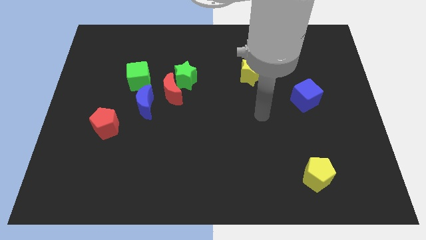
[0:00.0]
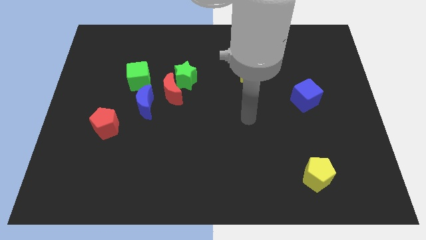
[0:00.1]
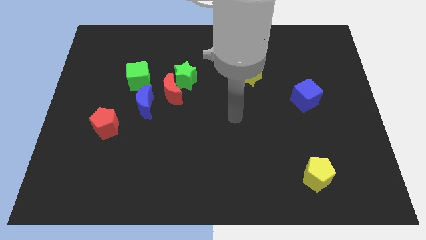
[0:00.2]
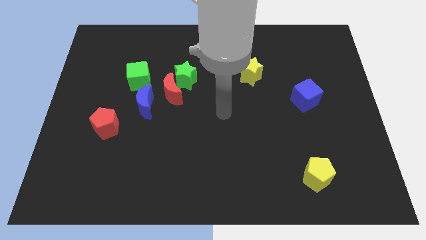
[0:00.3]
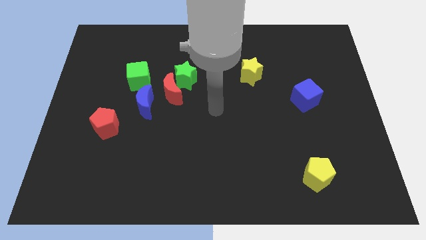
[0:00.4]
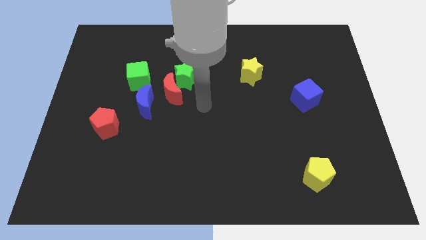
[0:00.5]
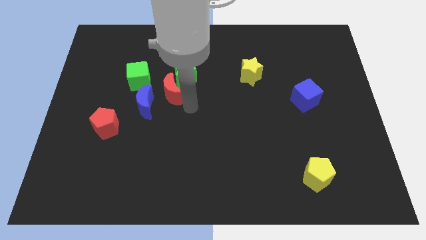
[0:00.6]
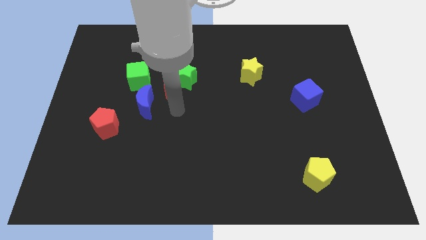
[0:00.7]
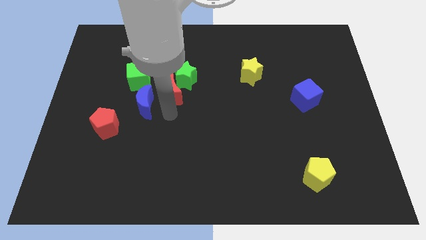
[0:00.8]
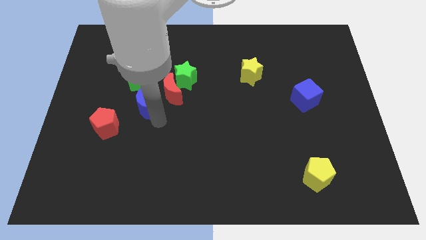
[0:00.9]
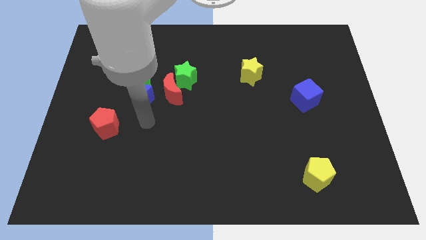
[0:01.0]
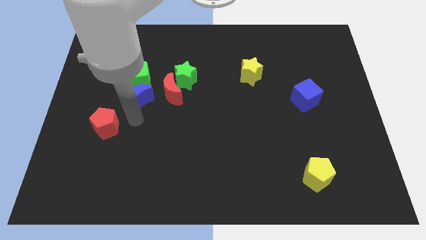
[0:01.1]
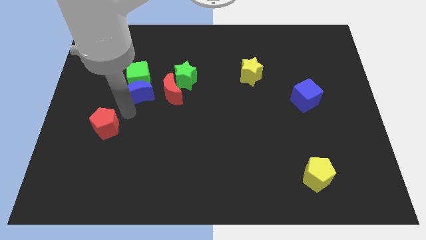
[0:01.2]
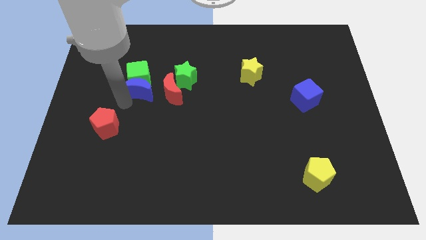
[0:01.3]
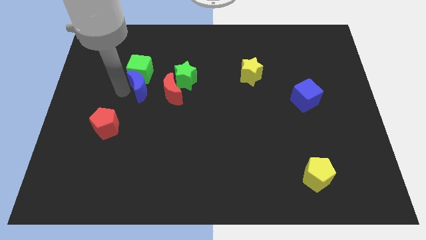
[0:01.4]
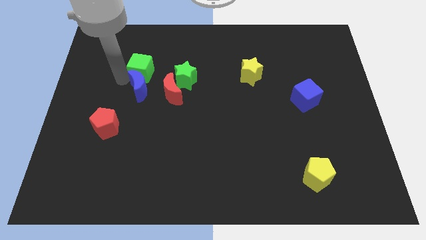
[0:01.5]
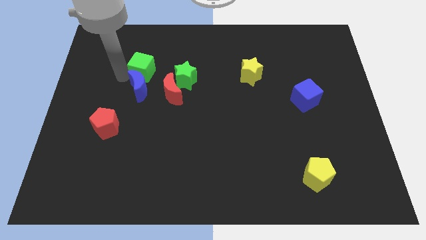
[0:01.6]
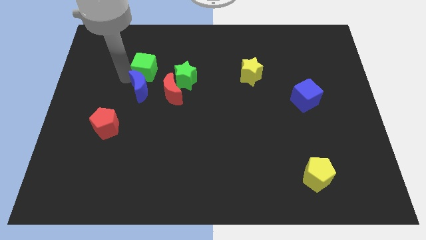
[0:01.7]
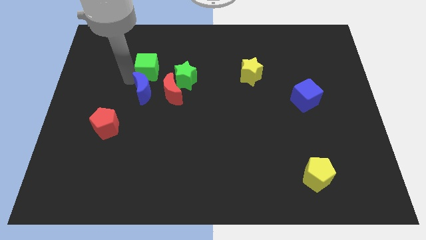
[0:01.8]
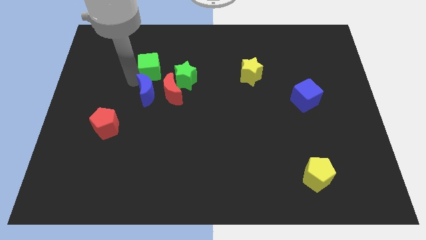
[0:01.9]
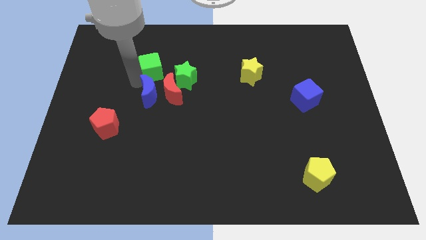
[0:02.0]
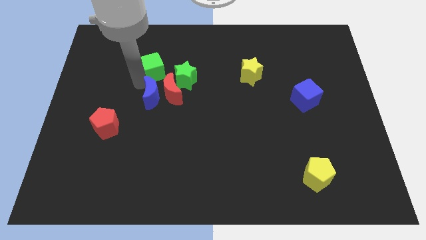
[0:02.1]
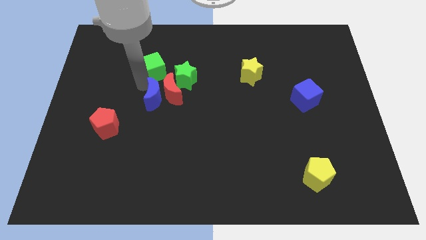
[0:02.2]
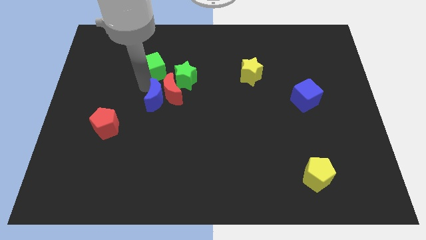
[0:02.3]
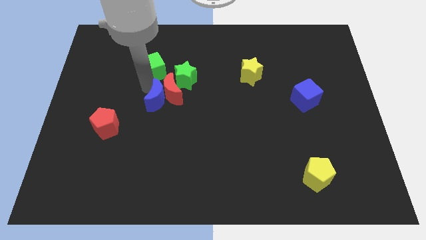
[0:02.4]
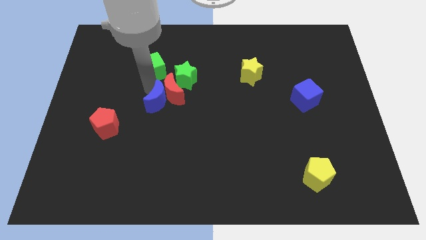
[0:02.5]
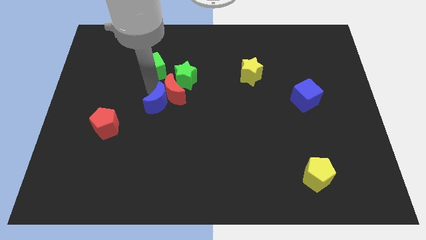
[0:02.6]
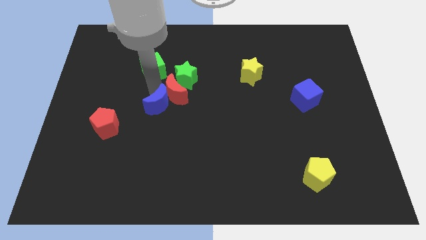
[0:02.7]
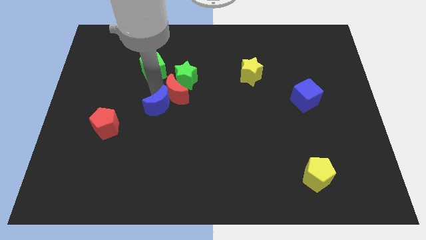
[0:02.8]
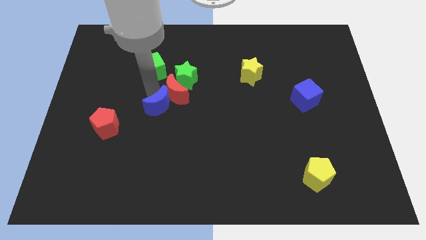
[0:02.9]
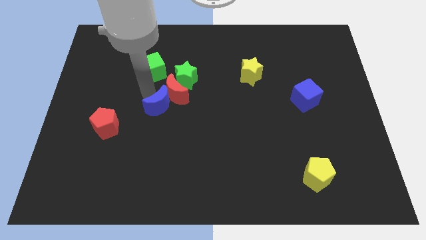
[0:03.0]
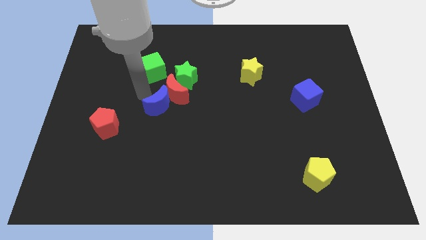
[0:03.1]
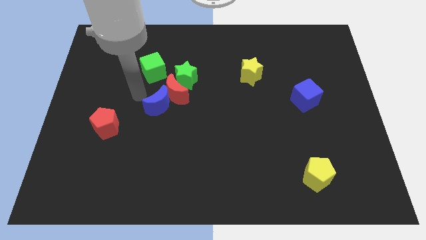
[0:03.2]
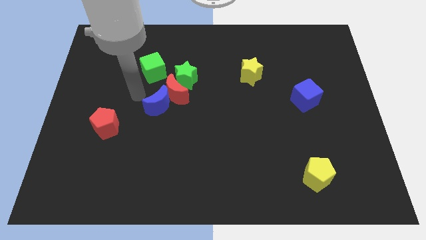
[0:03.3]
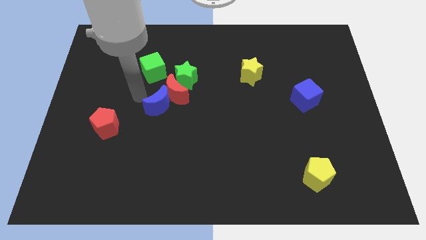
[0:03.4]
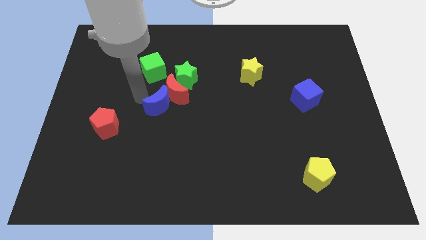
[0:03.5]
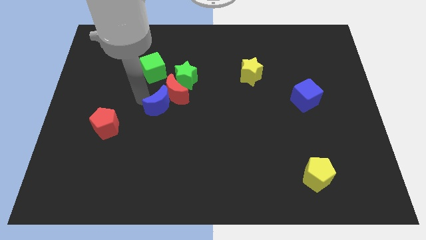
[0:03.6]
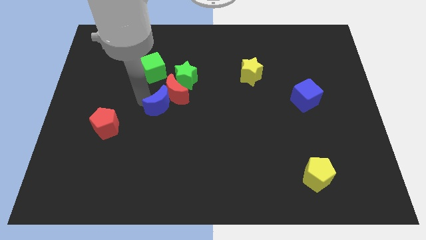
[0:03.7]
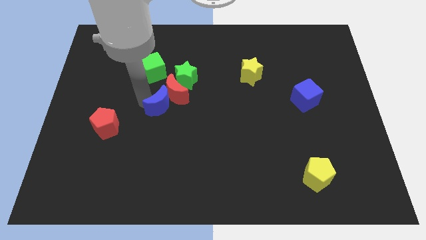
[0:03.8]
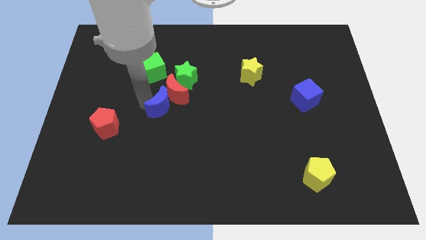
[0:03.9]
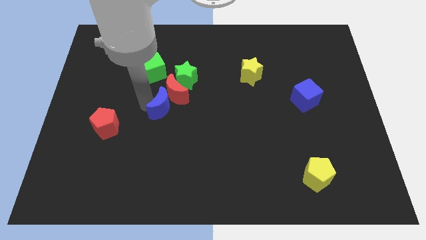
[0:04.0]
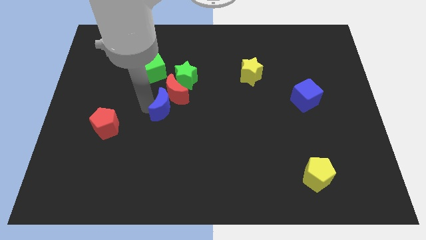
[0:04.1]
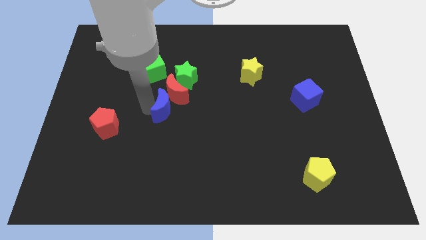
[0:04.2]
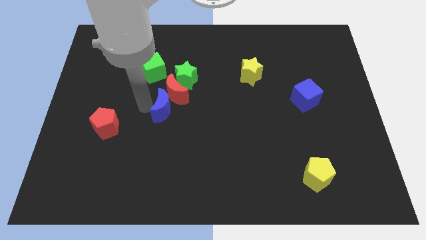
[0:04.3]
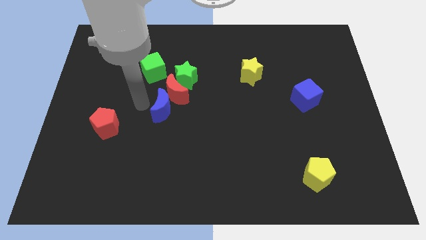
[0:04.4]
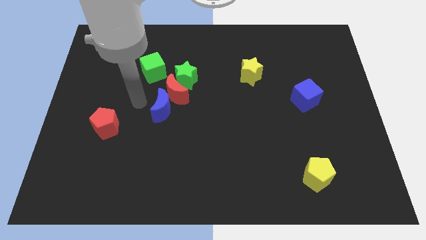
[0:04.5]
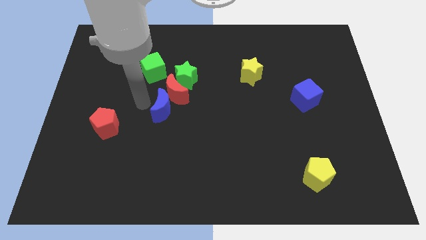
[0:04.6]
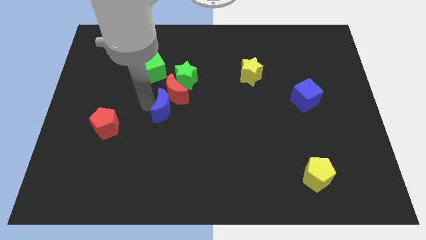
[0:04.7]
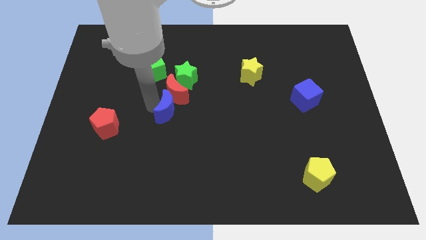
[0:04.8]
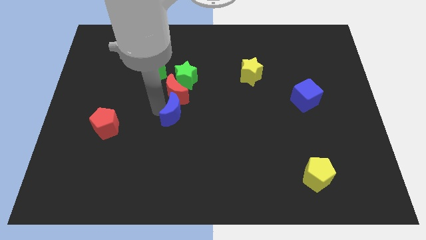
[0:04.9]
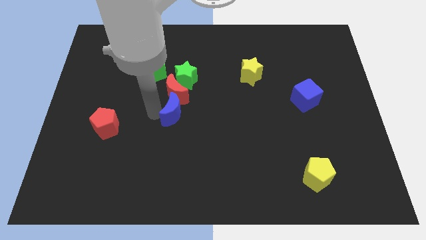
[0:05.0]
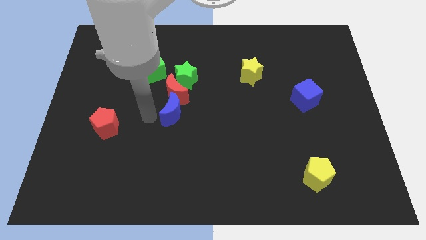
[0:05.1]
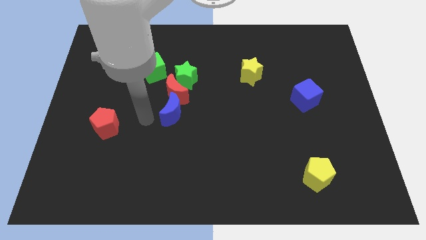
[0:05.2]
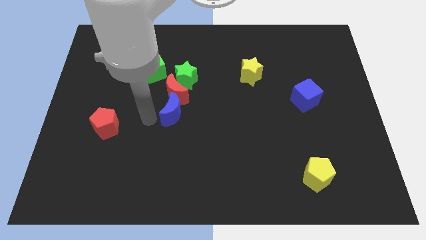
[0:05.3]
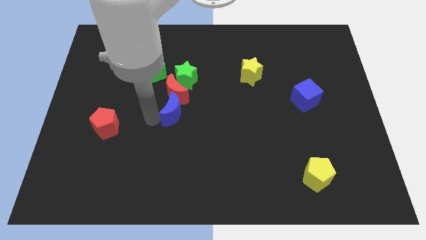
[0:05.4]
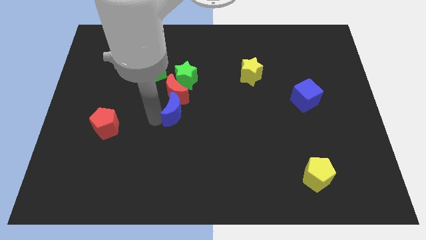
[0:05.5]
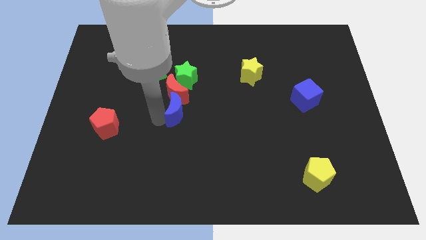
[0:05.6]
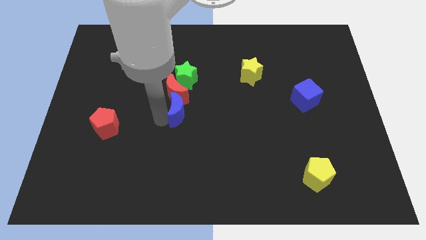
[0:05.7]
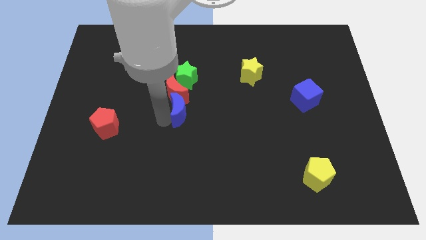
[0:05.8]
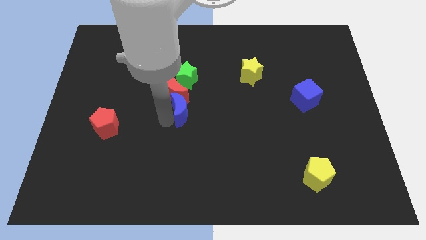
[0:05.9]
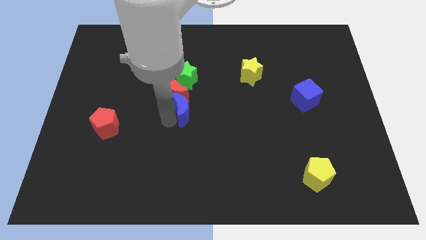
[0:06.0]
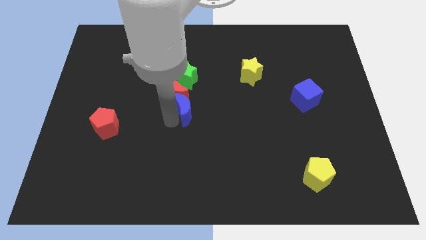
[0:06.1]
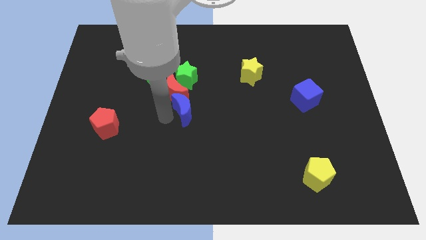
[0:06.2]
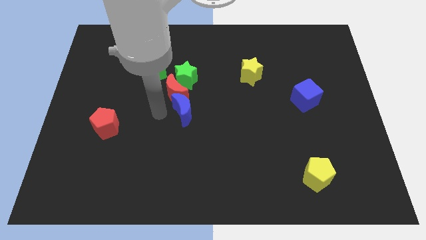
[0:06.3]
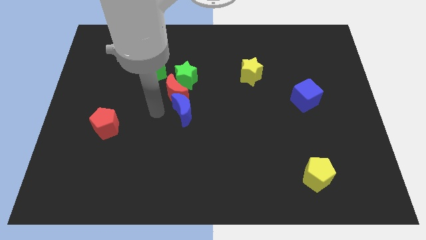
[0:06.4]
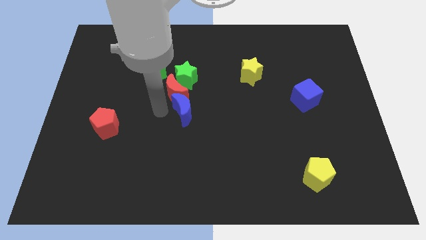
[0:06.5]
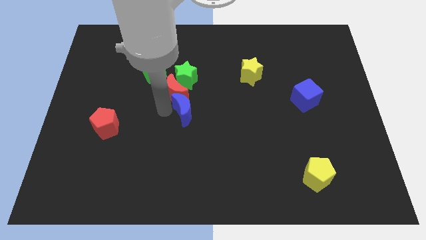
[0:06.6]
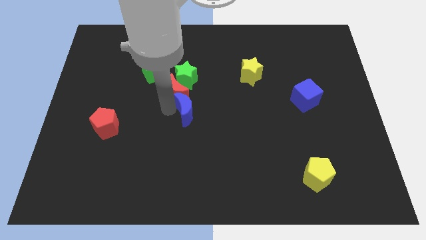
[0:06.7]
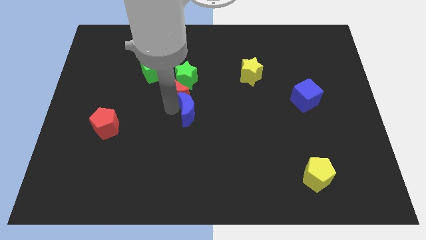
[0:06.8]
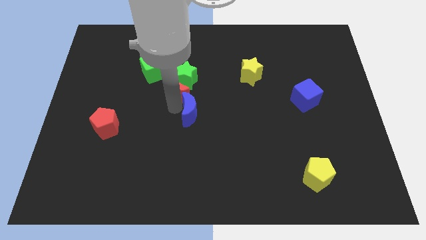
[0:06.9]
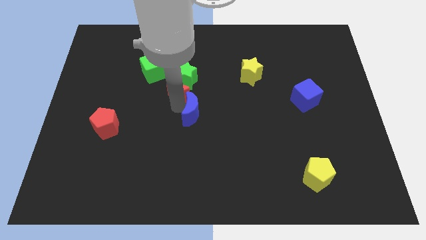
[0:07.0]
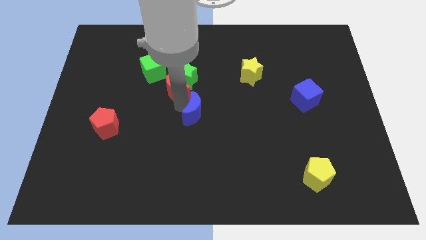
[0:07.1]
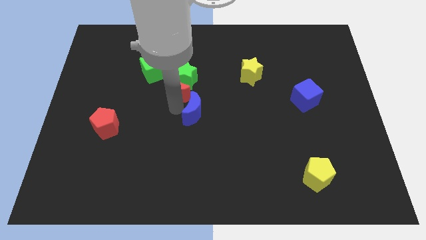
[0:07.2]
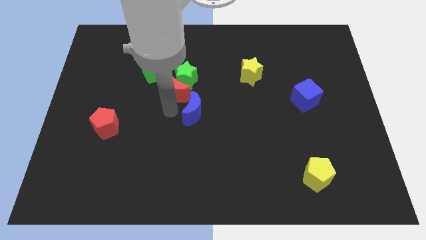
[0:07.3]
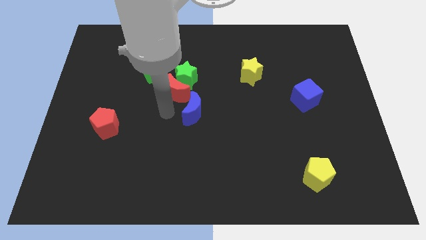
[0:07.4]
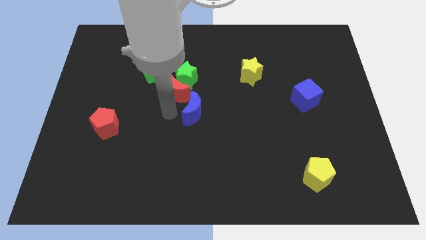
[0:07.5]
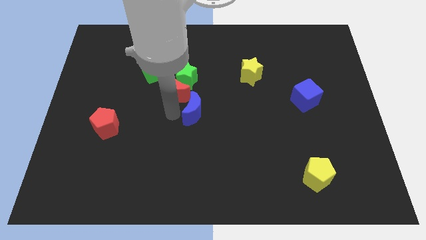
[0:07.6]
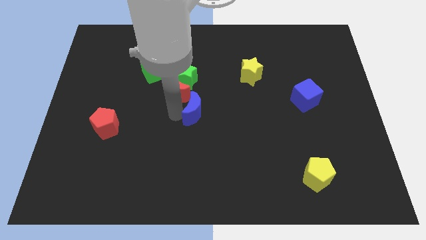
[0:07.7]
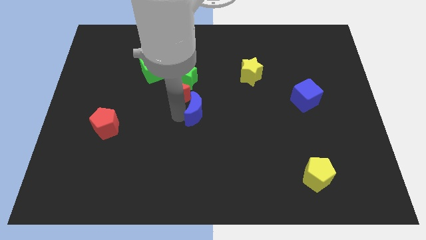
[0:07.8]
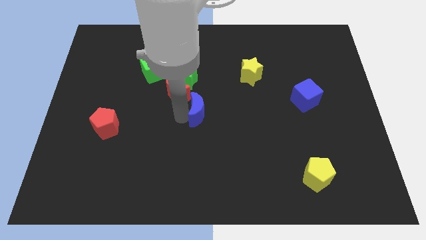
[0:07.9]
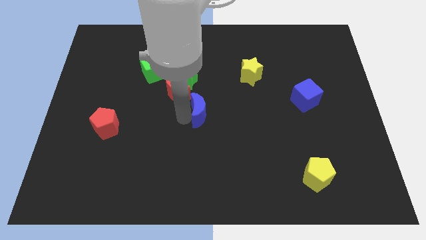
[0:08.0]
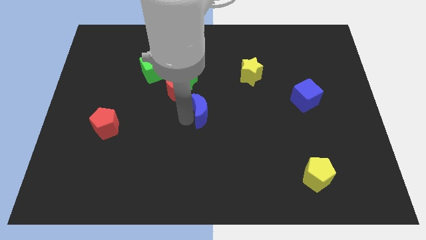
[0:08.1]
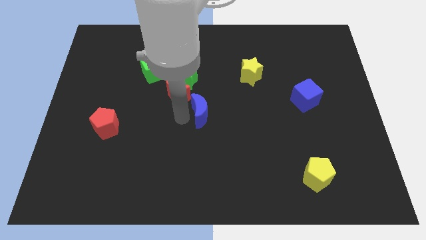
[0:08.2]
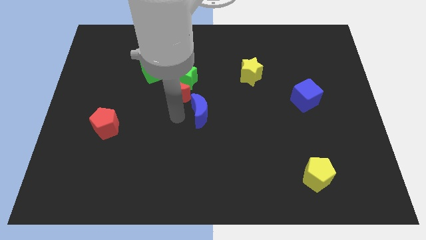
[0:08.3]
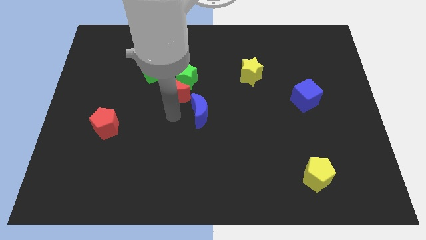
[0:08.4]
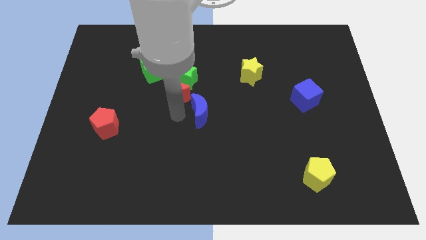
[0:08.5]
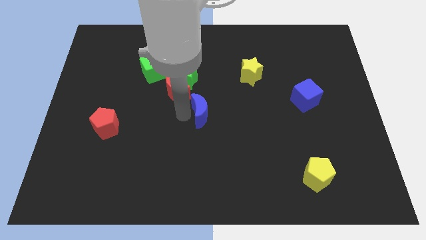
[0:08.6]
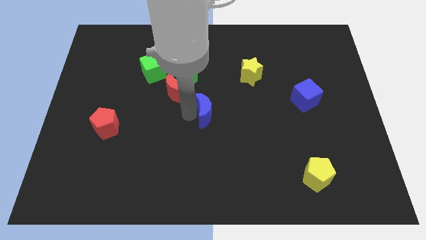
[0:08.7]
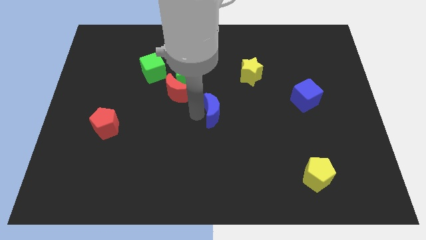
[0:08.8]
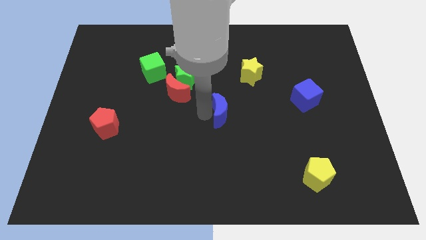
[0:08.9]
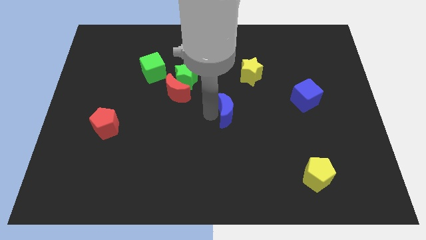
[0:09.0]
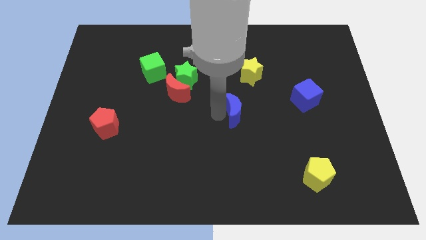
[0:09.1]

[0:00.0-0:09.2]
put the blue moon to the bottom side of the yellow star
